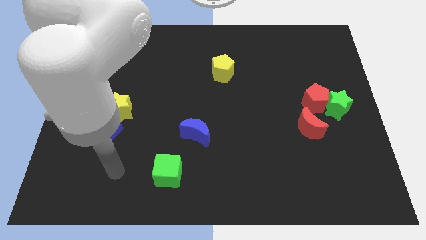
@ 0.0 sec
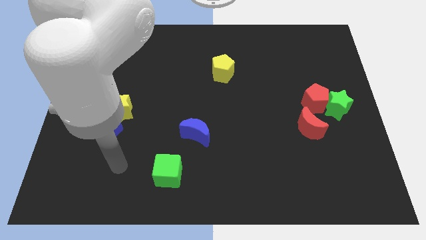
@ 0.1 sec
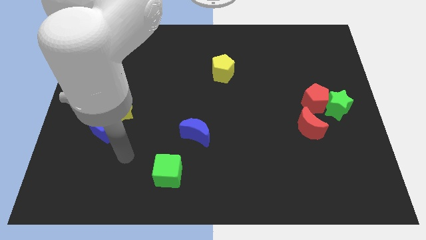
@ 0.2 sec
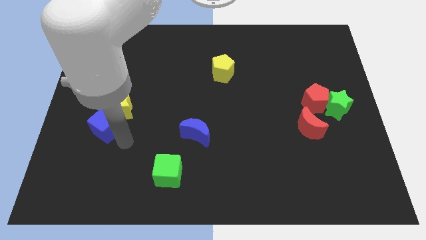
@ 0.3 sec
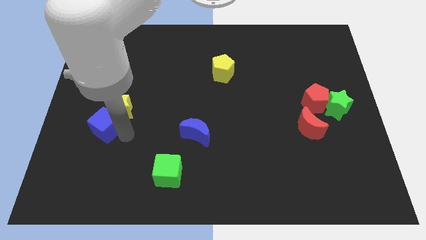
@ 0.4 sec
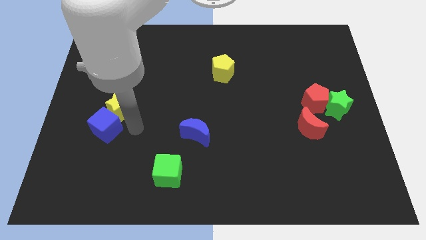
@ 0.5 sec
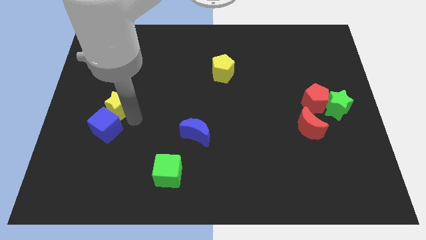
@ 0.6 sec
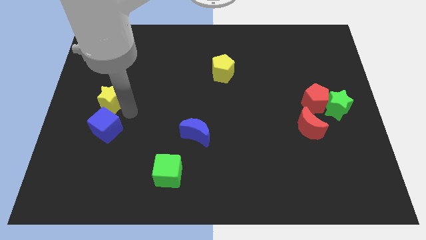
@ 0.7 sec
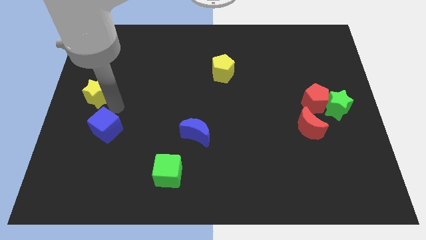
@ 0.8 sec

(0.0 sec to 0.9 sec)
pull the blue cube apart from the yellow star

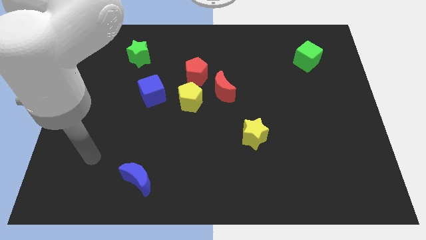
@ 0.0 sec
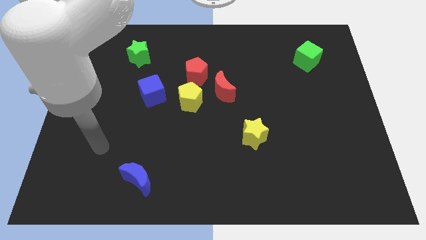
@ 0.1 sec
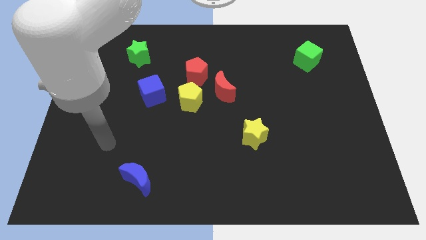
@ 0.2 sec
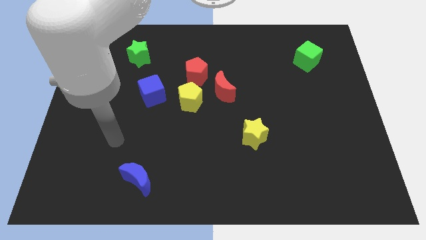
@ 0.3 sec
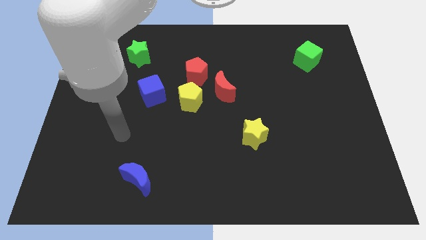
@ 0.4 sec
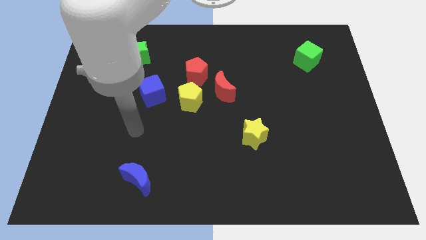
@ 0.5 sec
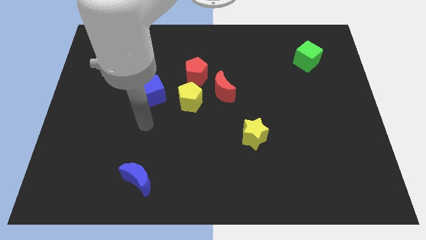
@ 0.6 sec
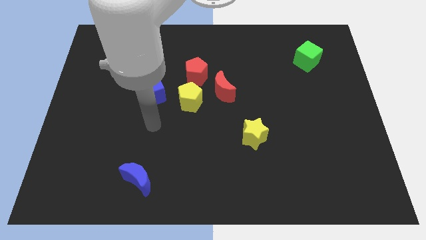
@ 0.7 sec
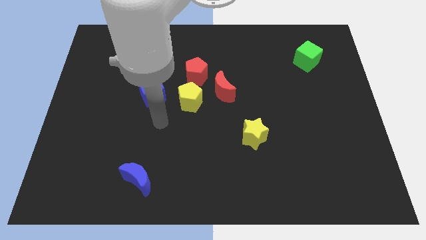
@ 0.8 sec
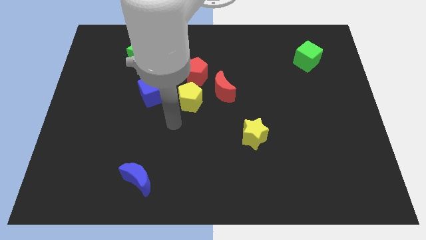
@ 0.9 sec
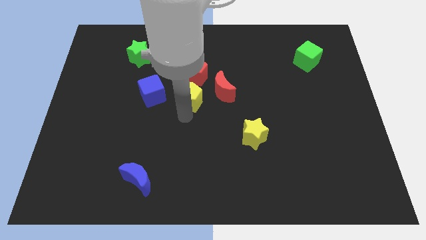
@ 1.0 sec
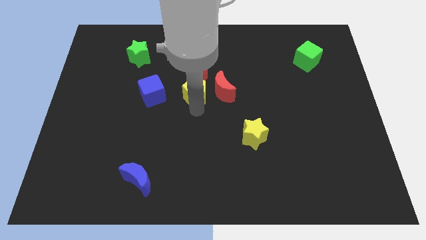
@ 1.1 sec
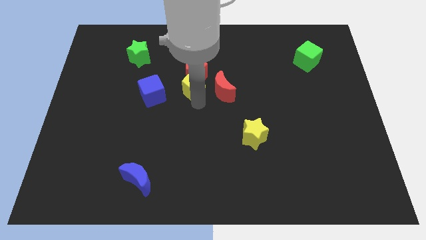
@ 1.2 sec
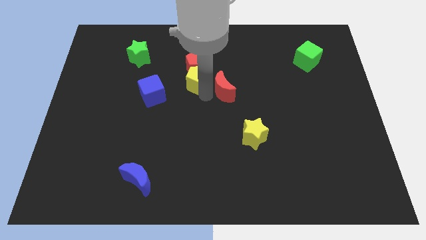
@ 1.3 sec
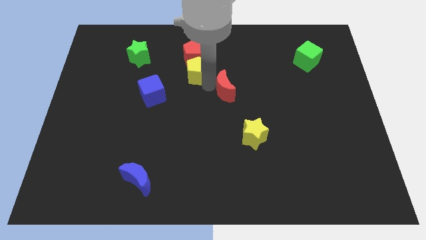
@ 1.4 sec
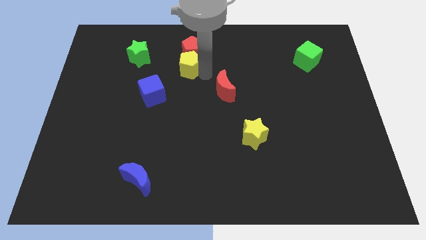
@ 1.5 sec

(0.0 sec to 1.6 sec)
separate the red pentagon from the yellow pentagon and red moon

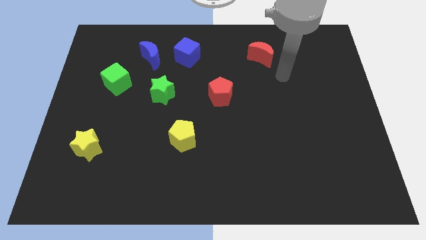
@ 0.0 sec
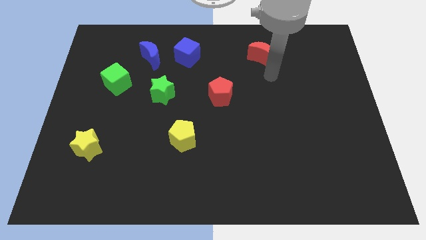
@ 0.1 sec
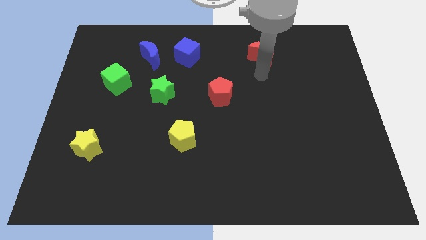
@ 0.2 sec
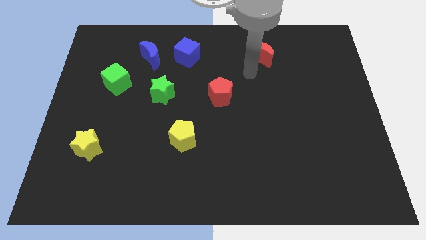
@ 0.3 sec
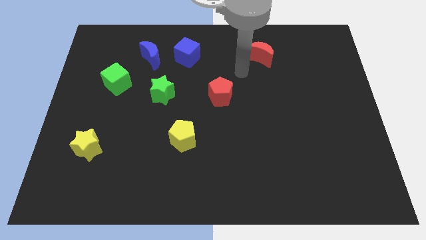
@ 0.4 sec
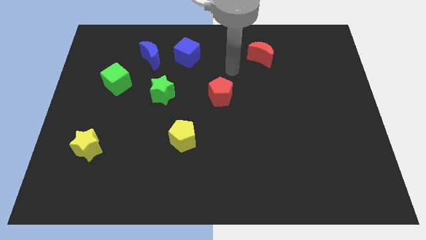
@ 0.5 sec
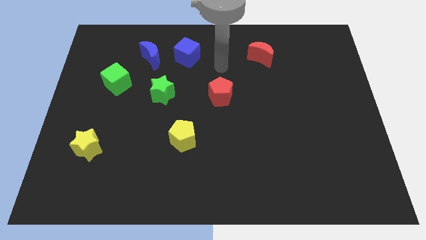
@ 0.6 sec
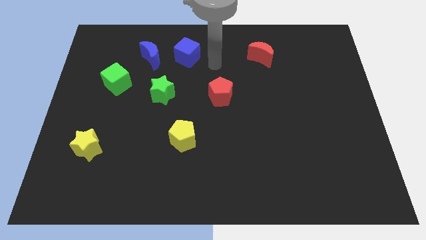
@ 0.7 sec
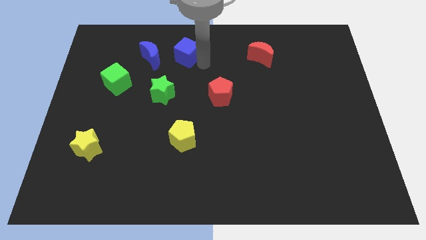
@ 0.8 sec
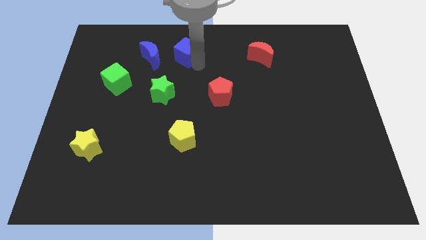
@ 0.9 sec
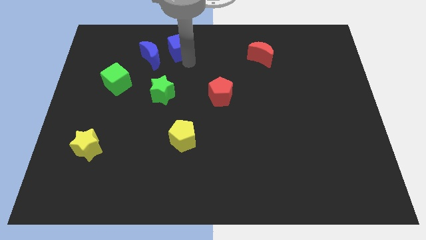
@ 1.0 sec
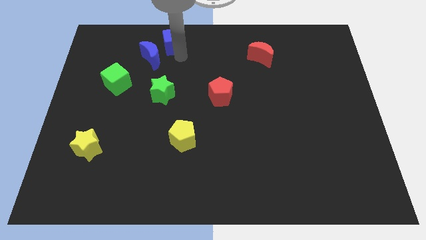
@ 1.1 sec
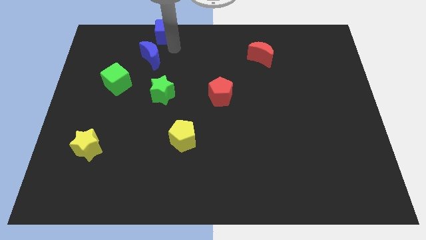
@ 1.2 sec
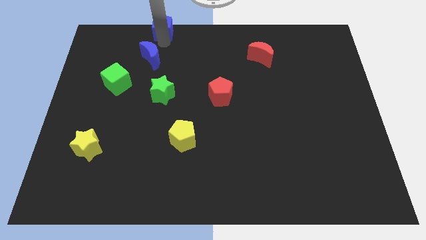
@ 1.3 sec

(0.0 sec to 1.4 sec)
separate the blue moon from the blue cube

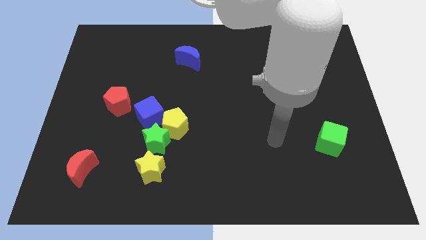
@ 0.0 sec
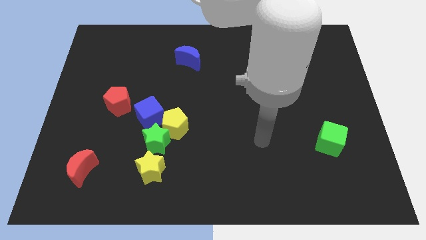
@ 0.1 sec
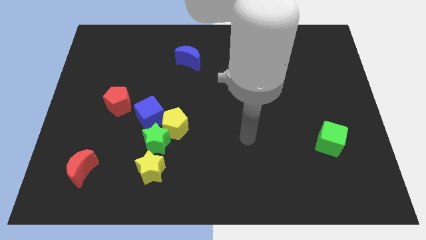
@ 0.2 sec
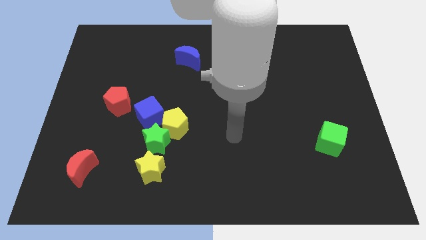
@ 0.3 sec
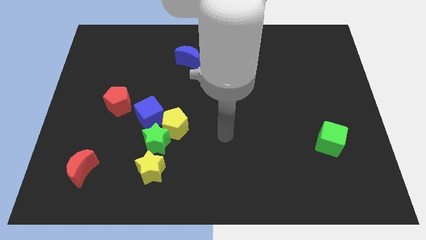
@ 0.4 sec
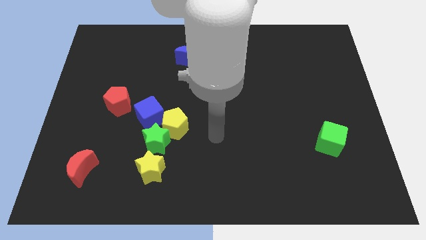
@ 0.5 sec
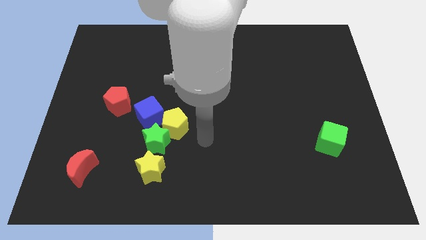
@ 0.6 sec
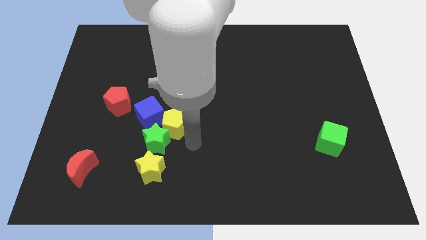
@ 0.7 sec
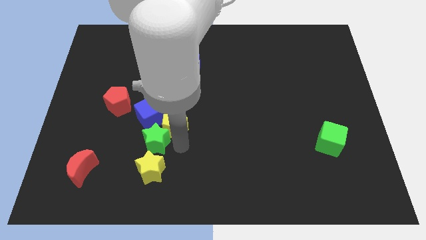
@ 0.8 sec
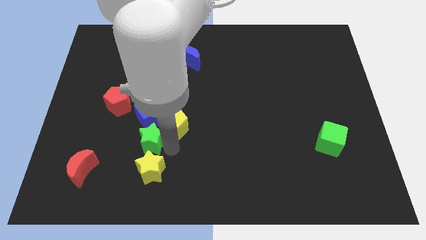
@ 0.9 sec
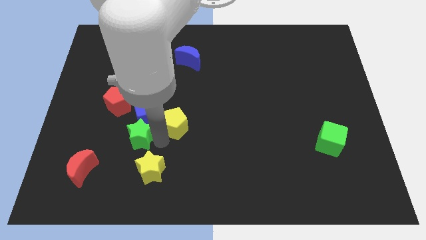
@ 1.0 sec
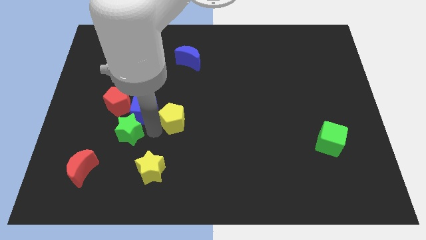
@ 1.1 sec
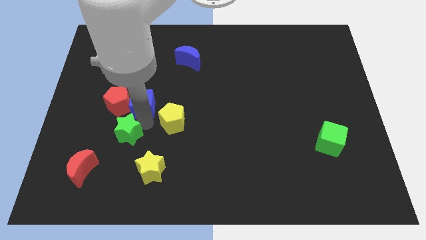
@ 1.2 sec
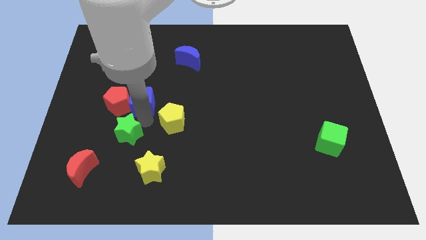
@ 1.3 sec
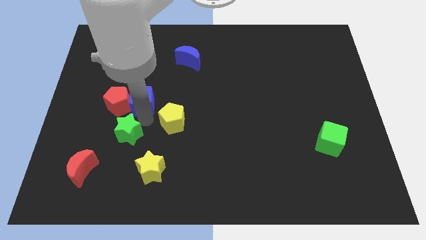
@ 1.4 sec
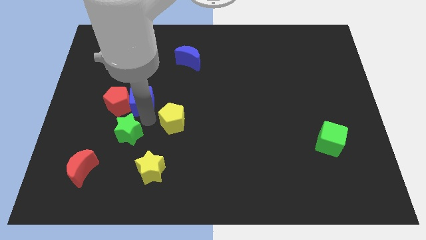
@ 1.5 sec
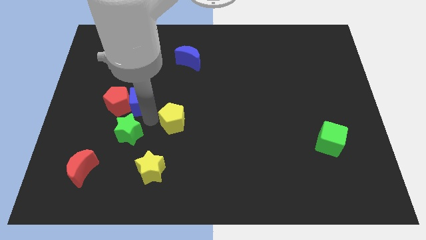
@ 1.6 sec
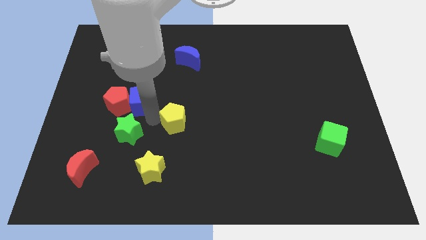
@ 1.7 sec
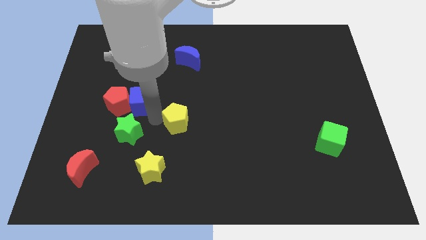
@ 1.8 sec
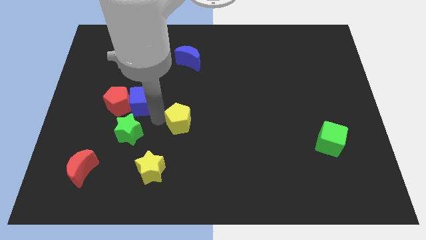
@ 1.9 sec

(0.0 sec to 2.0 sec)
pull the yellow pentagon apart from the green star and blue cube

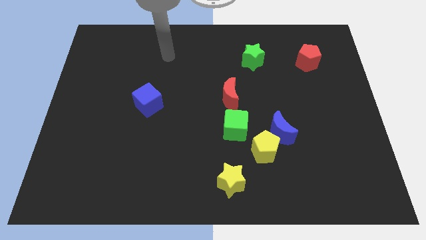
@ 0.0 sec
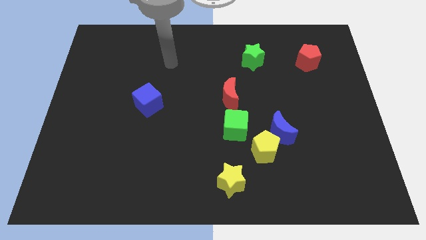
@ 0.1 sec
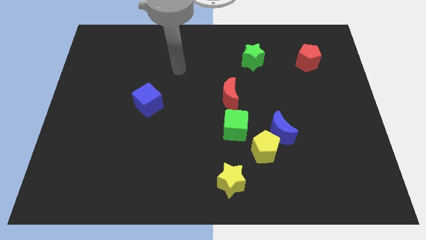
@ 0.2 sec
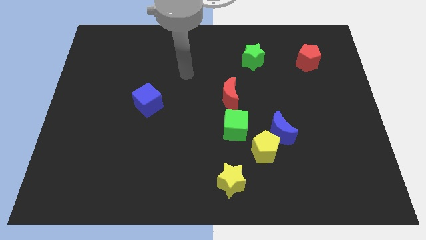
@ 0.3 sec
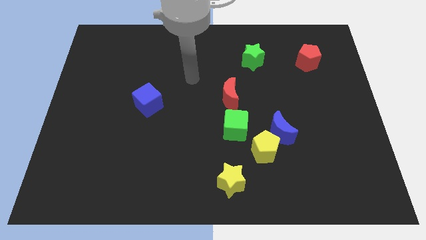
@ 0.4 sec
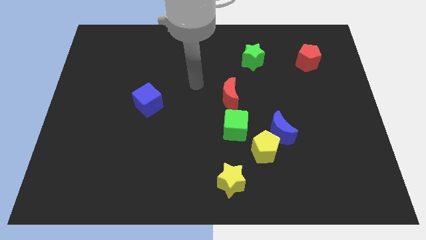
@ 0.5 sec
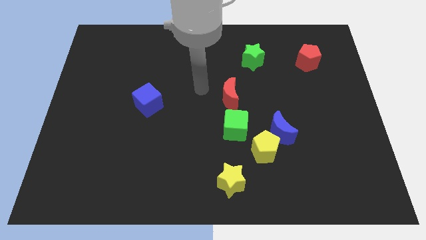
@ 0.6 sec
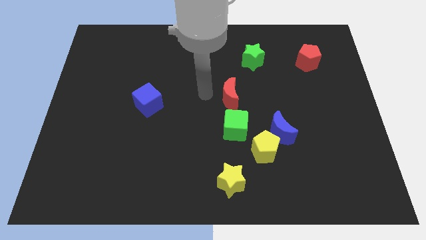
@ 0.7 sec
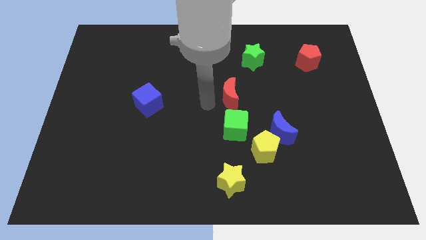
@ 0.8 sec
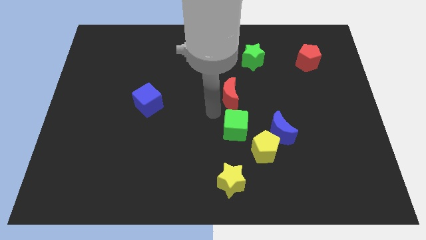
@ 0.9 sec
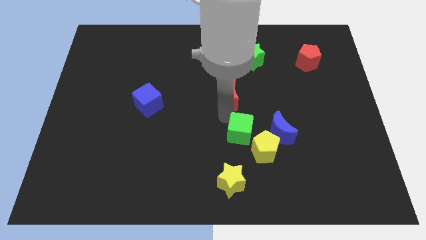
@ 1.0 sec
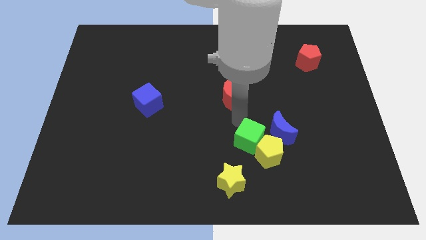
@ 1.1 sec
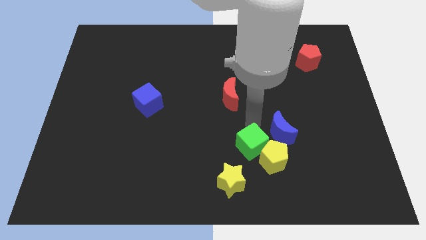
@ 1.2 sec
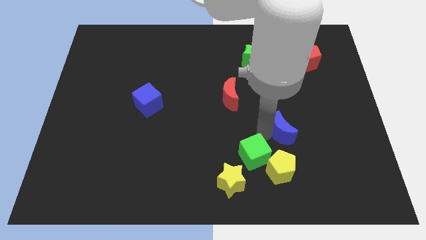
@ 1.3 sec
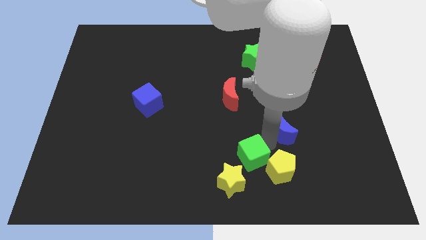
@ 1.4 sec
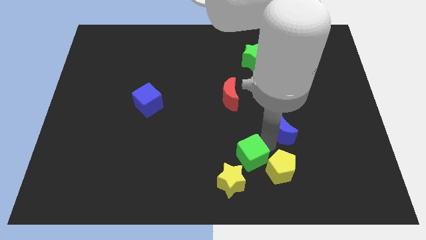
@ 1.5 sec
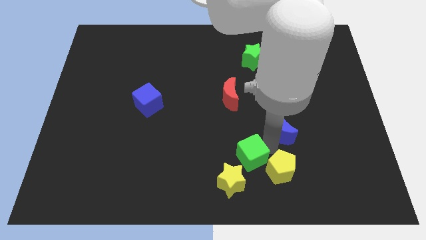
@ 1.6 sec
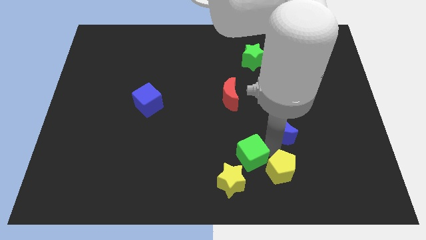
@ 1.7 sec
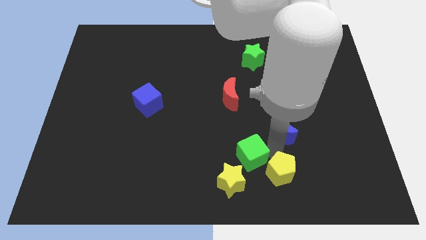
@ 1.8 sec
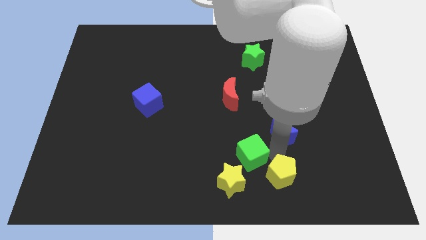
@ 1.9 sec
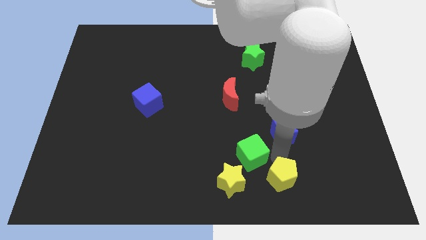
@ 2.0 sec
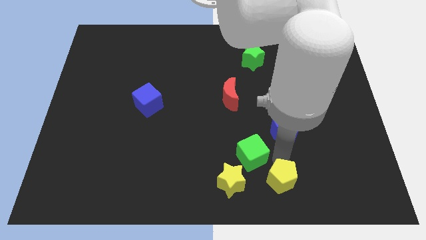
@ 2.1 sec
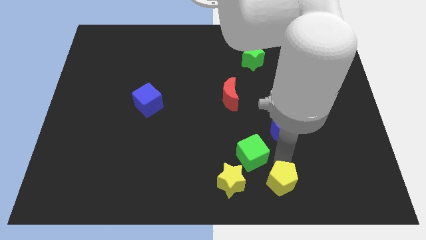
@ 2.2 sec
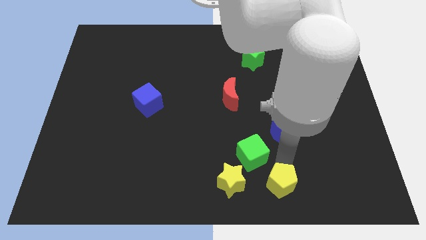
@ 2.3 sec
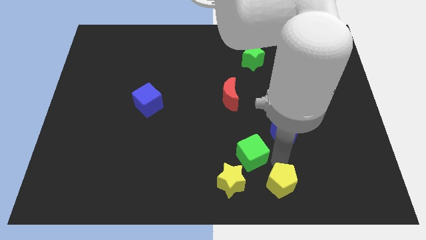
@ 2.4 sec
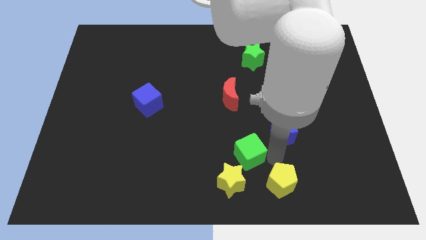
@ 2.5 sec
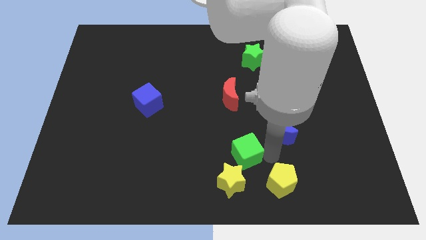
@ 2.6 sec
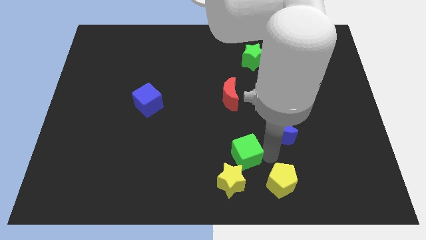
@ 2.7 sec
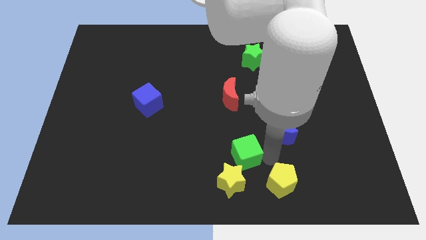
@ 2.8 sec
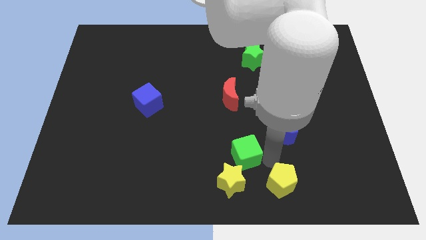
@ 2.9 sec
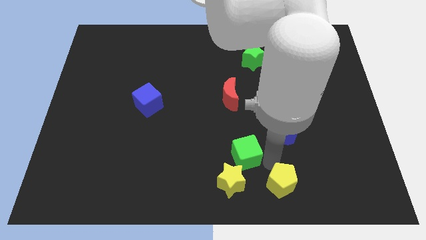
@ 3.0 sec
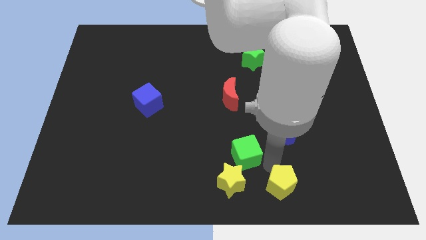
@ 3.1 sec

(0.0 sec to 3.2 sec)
pull the yellow pentagon apart from the blue moon and green cube

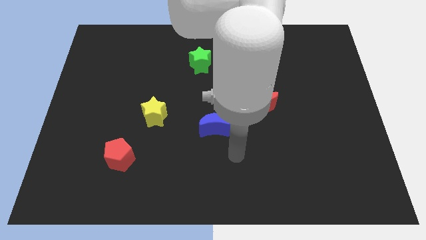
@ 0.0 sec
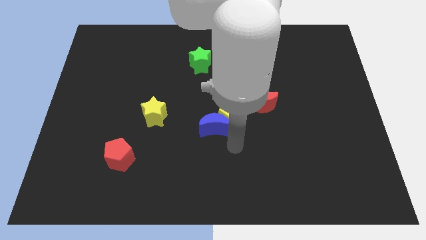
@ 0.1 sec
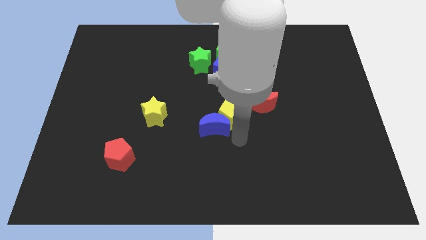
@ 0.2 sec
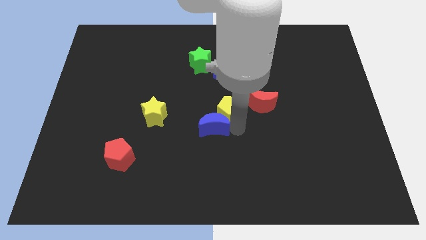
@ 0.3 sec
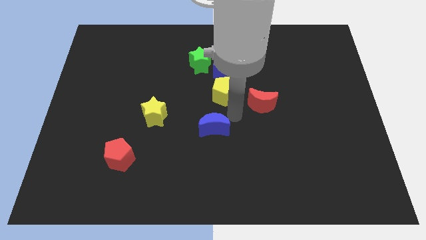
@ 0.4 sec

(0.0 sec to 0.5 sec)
move the blue moon away from the yellow pentagon
